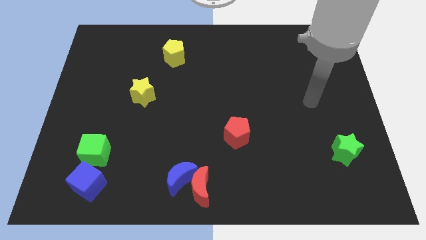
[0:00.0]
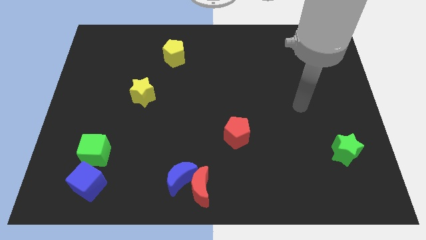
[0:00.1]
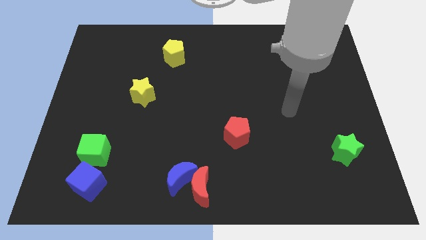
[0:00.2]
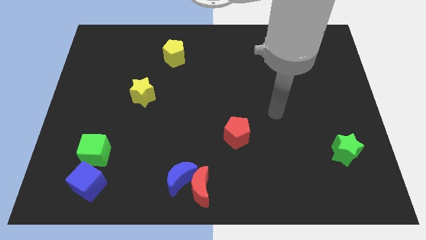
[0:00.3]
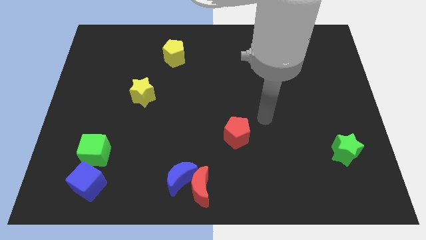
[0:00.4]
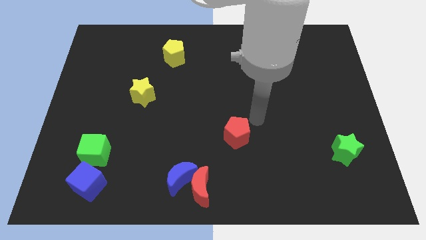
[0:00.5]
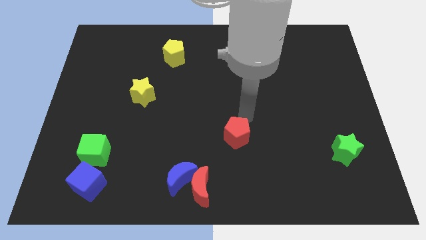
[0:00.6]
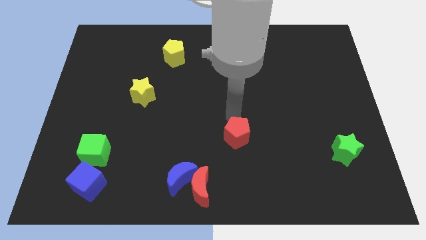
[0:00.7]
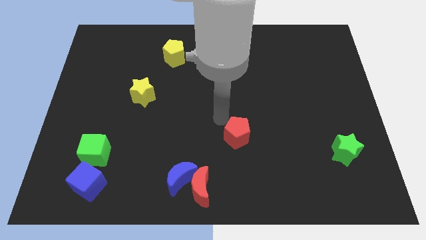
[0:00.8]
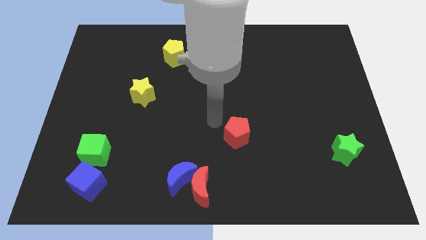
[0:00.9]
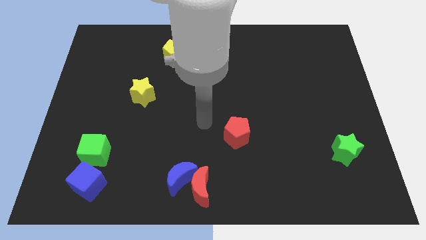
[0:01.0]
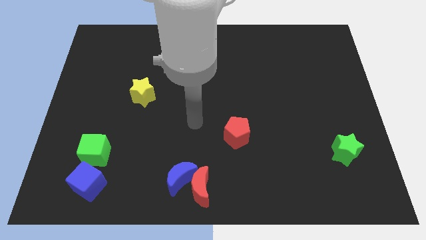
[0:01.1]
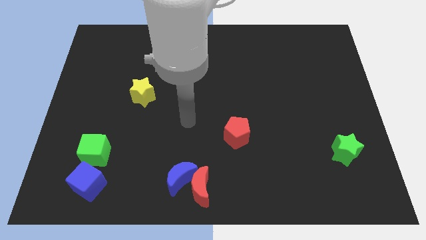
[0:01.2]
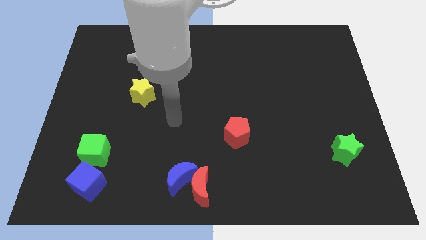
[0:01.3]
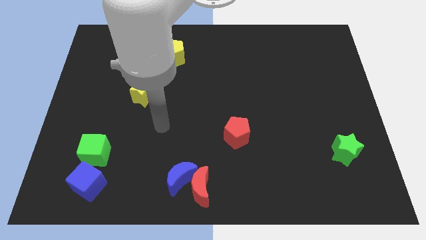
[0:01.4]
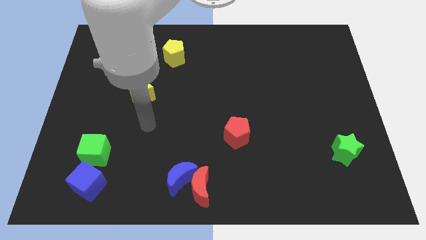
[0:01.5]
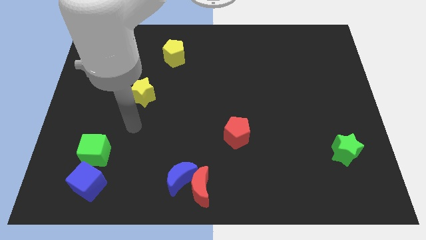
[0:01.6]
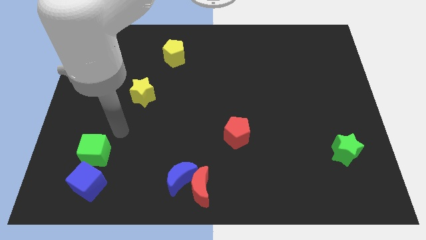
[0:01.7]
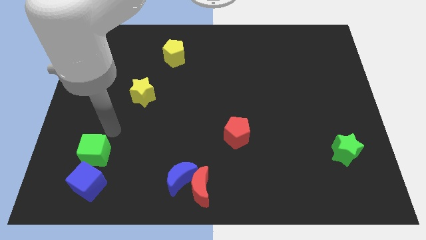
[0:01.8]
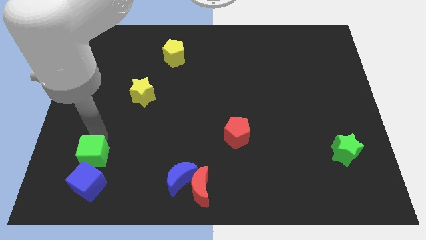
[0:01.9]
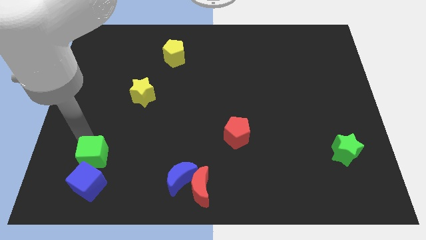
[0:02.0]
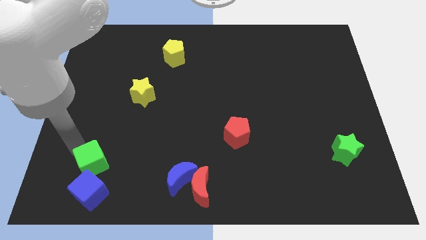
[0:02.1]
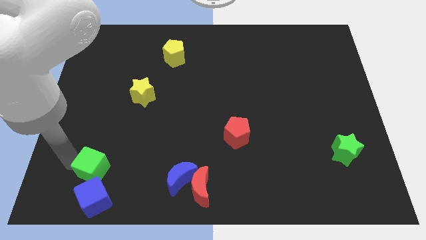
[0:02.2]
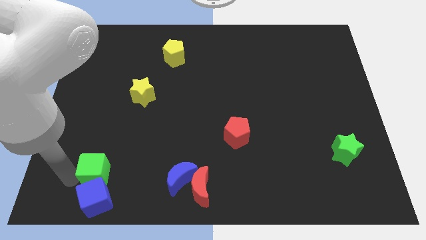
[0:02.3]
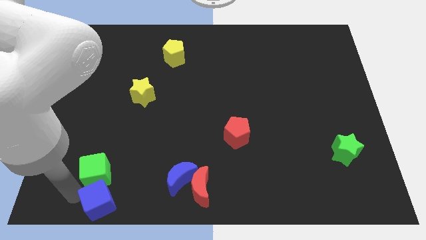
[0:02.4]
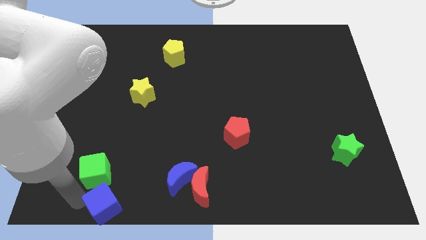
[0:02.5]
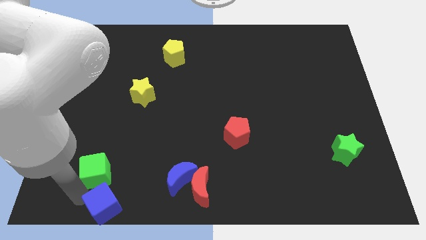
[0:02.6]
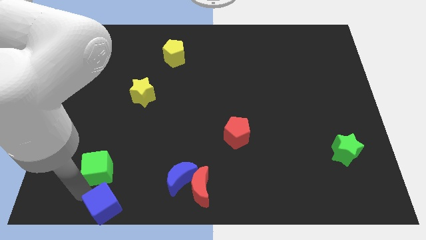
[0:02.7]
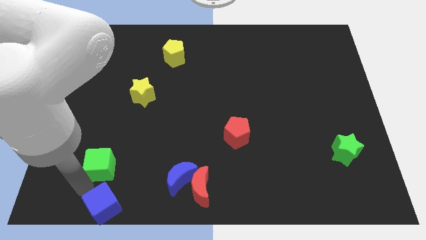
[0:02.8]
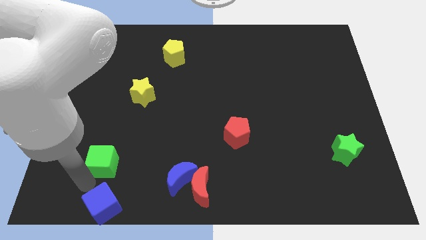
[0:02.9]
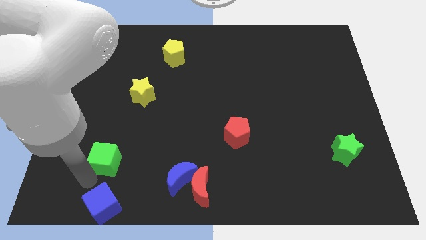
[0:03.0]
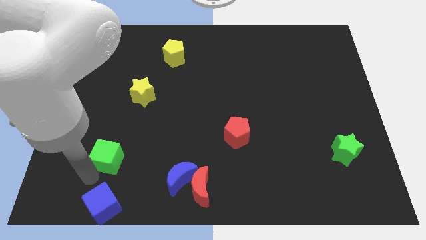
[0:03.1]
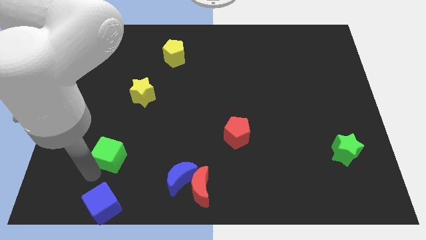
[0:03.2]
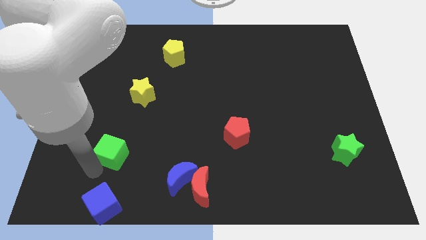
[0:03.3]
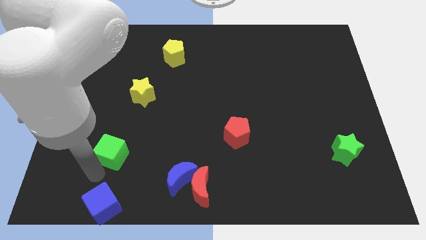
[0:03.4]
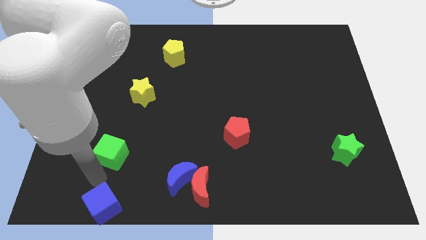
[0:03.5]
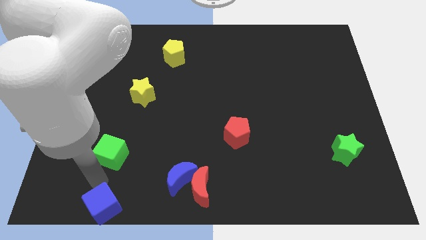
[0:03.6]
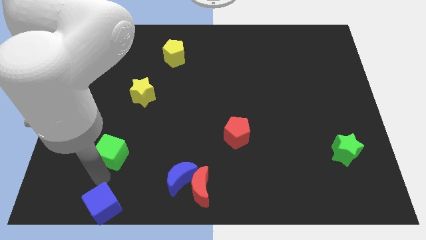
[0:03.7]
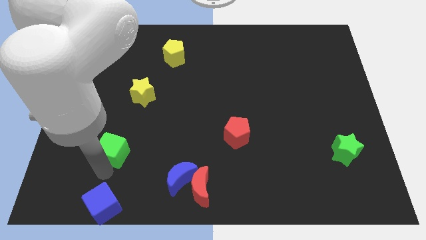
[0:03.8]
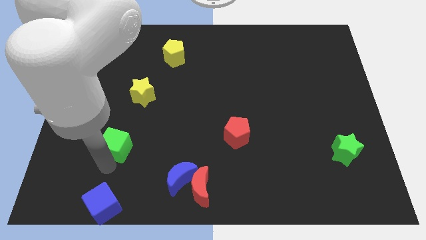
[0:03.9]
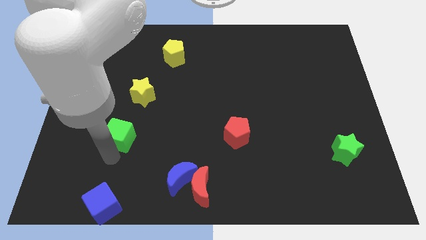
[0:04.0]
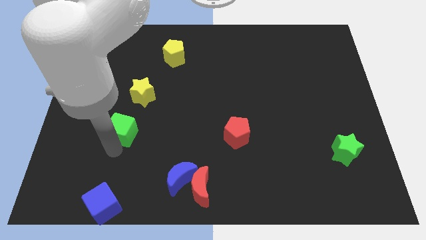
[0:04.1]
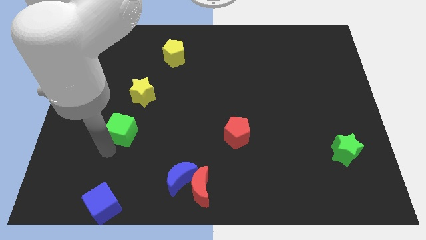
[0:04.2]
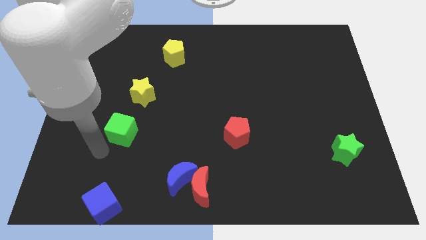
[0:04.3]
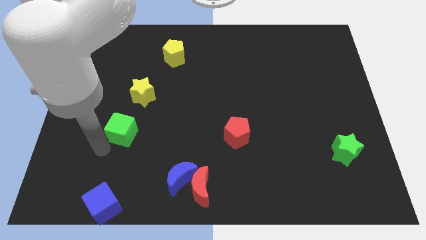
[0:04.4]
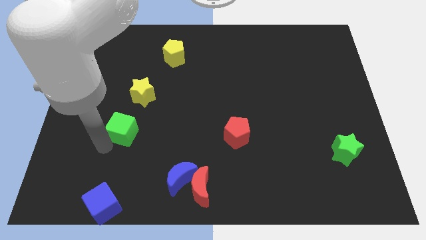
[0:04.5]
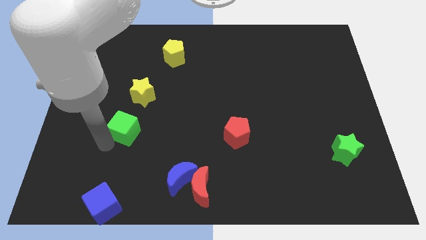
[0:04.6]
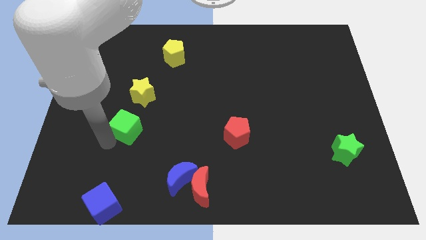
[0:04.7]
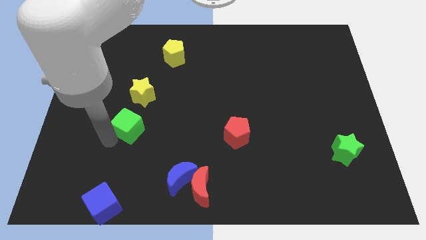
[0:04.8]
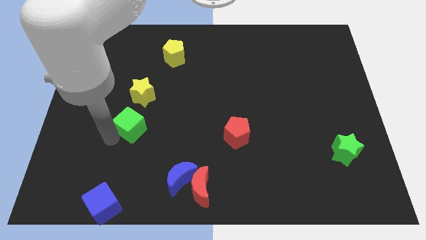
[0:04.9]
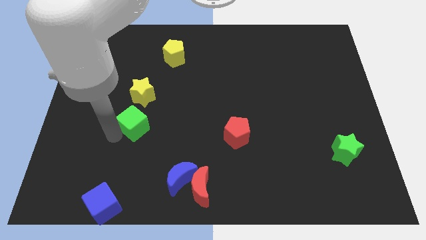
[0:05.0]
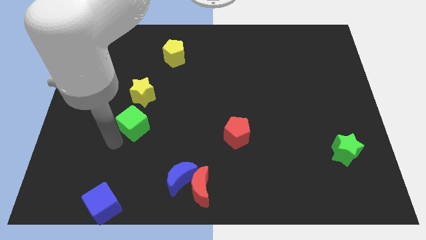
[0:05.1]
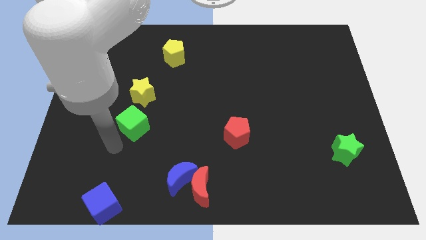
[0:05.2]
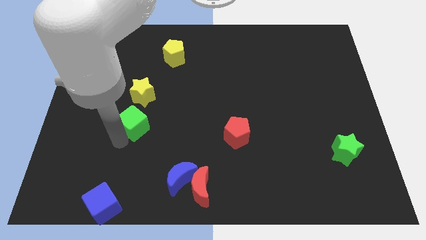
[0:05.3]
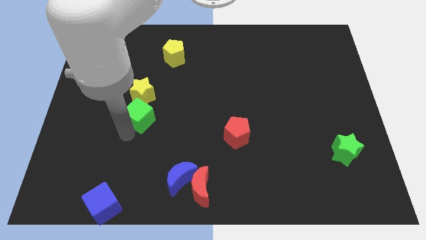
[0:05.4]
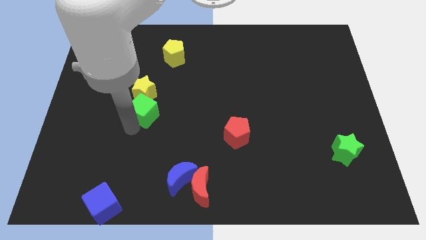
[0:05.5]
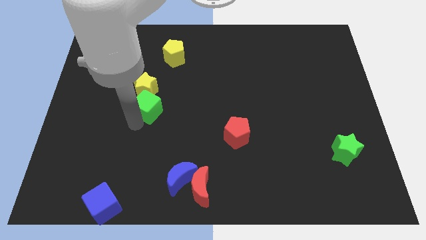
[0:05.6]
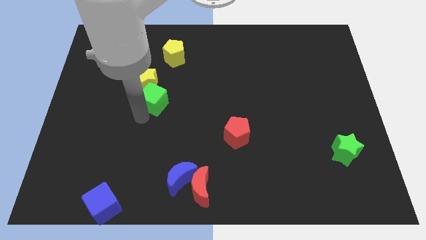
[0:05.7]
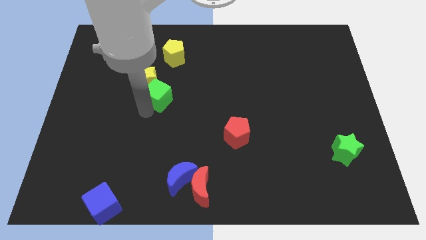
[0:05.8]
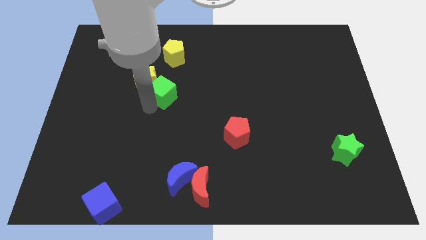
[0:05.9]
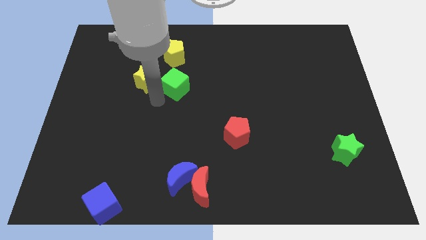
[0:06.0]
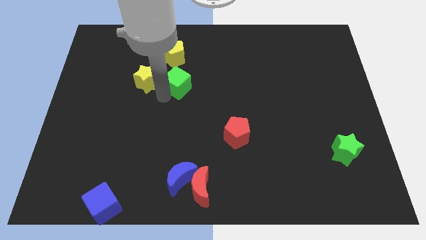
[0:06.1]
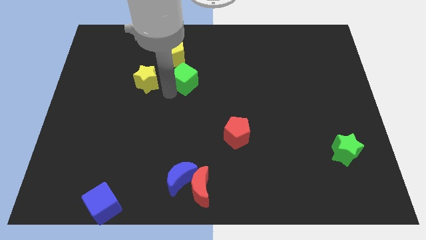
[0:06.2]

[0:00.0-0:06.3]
put the green cube to the bottom right of the yellow pentagon

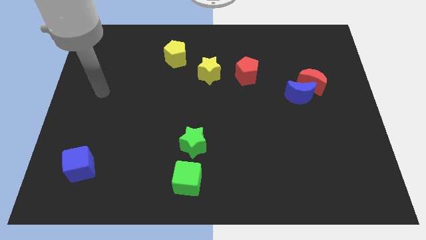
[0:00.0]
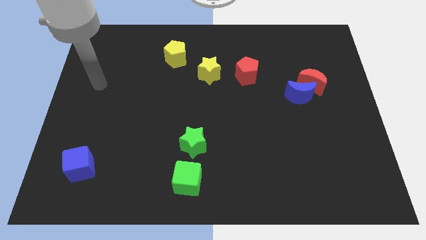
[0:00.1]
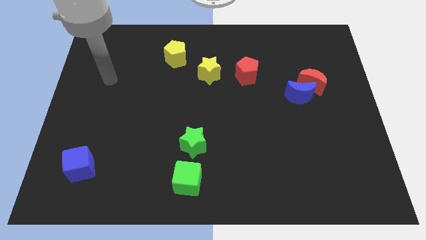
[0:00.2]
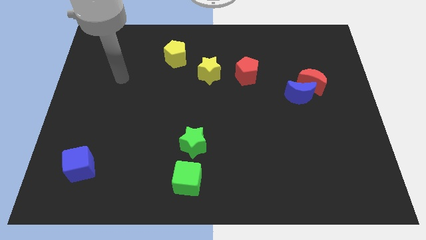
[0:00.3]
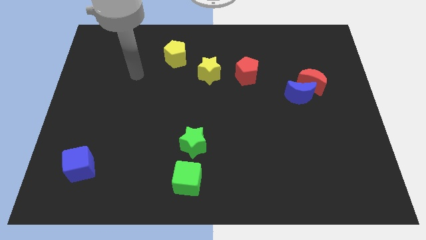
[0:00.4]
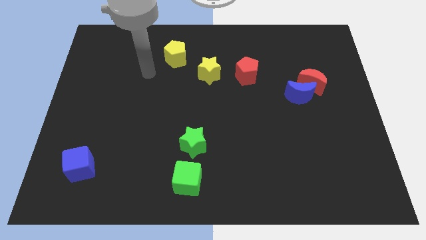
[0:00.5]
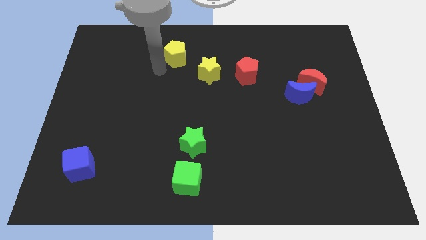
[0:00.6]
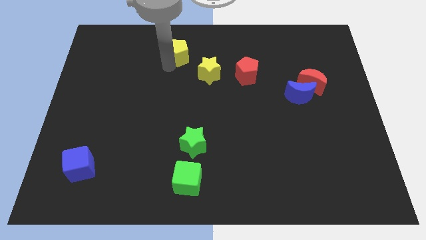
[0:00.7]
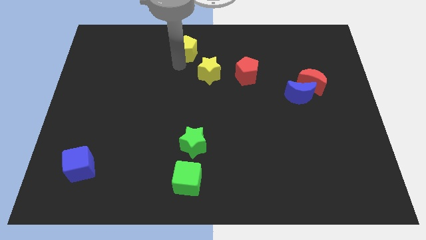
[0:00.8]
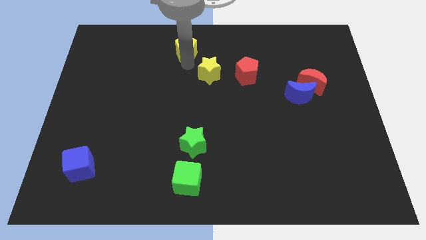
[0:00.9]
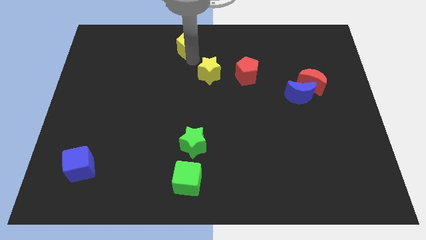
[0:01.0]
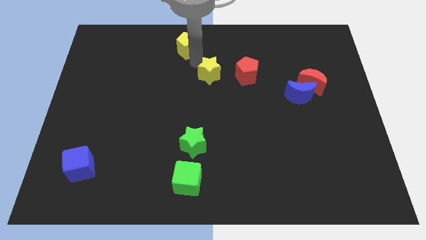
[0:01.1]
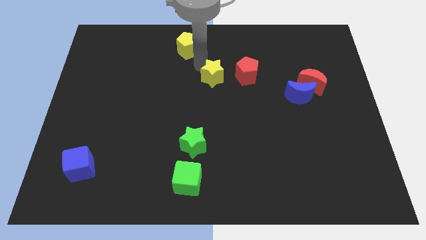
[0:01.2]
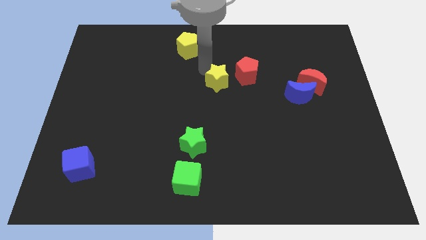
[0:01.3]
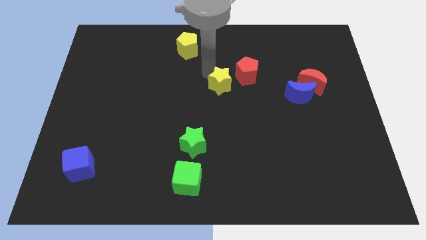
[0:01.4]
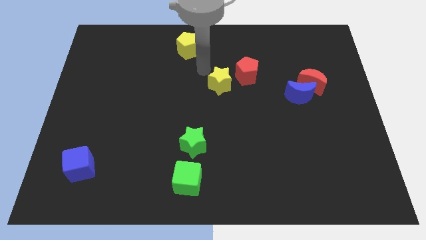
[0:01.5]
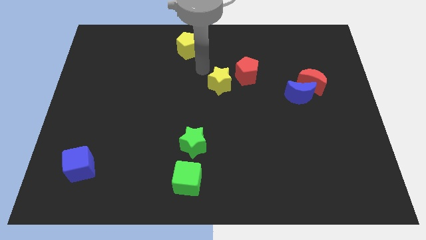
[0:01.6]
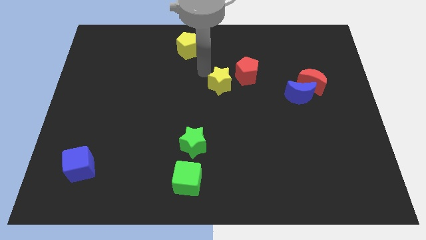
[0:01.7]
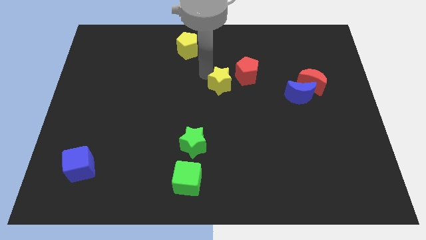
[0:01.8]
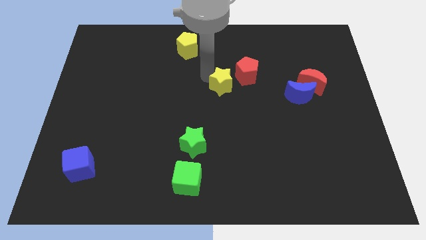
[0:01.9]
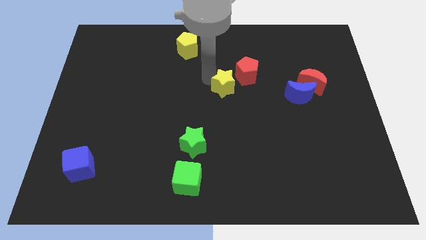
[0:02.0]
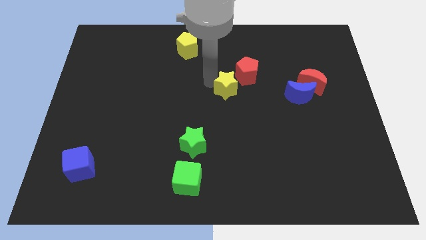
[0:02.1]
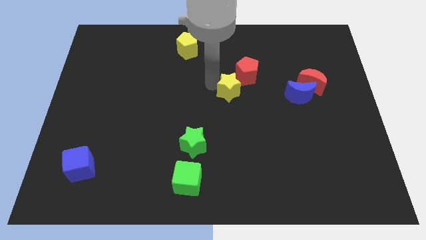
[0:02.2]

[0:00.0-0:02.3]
slide the yellow star to the bottom side of the red pentagon
